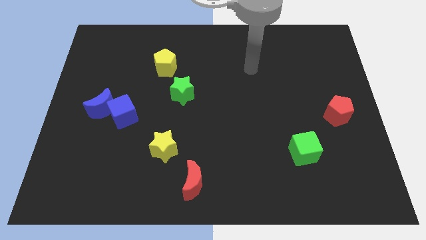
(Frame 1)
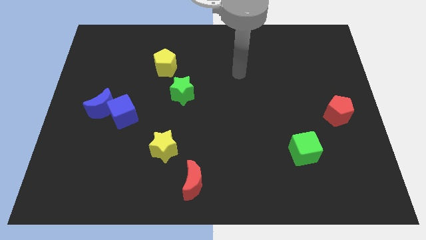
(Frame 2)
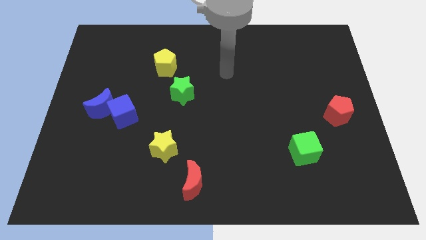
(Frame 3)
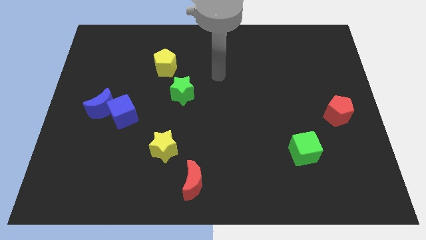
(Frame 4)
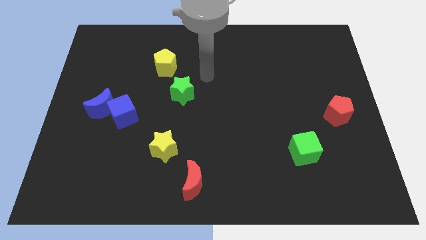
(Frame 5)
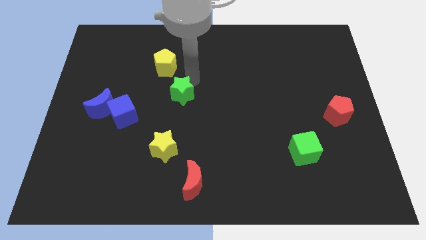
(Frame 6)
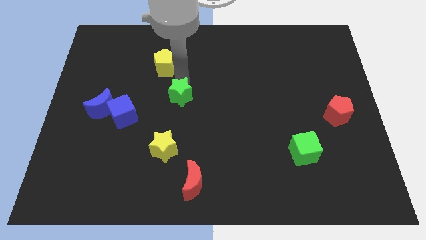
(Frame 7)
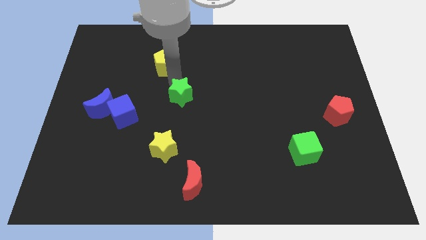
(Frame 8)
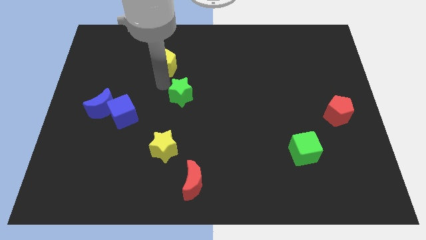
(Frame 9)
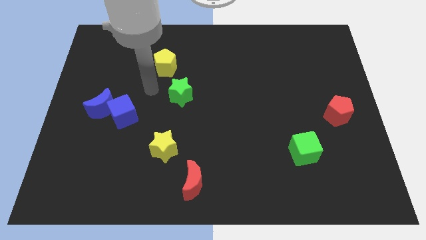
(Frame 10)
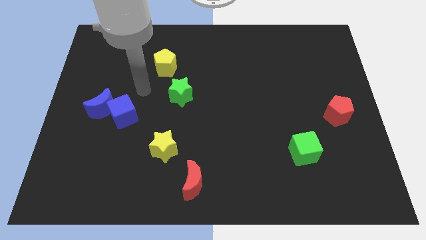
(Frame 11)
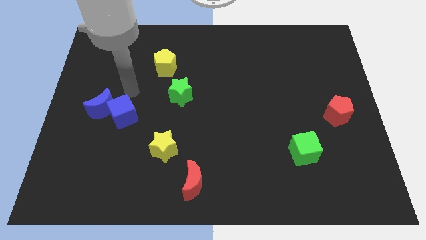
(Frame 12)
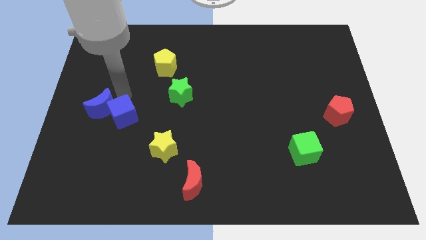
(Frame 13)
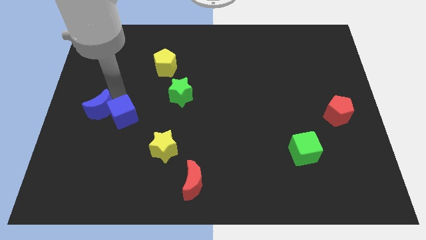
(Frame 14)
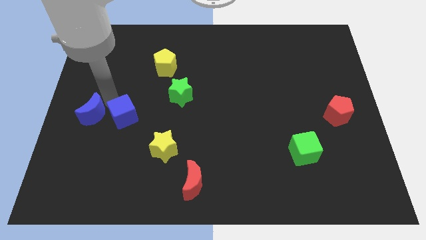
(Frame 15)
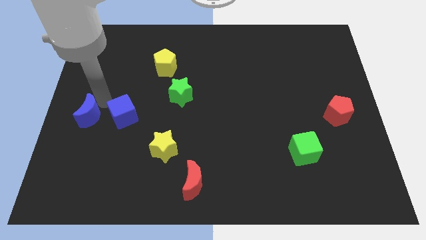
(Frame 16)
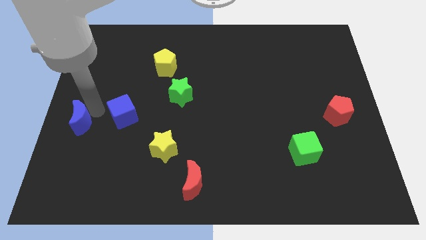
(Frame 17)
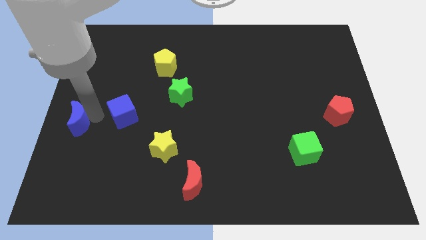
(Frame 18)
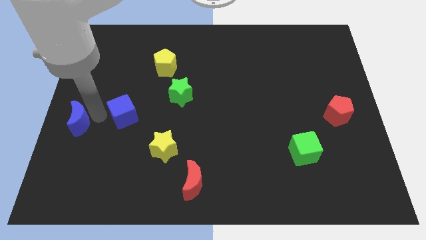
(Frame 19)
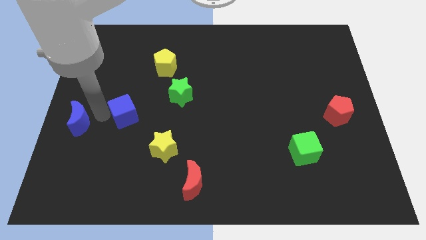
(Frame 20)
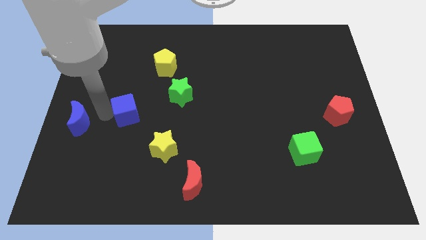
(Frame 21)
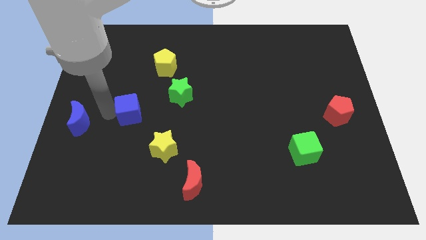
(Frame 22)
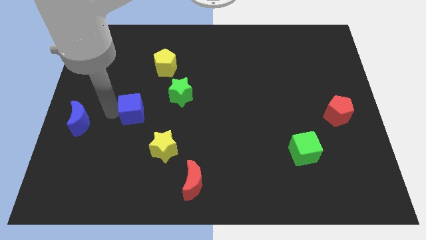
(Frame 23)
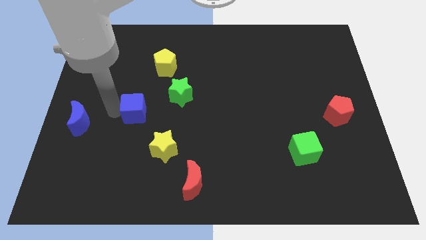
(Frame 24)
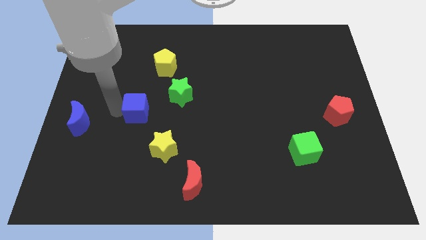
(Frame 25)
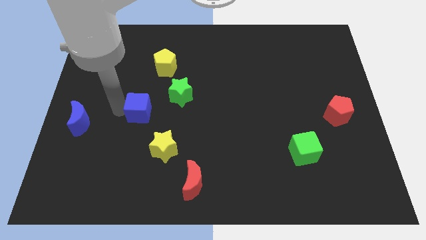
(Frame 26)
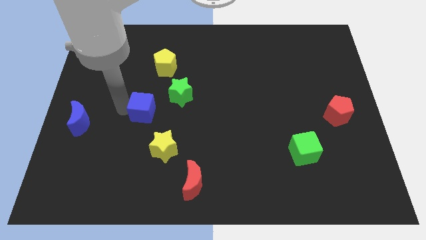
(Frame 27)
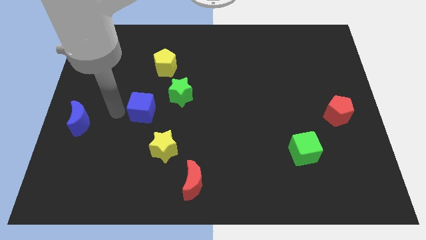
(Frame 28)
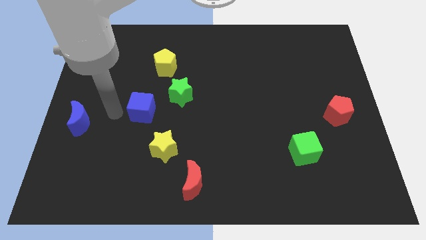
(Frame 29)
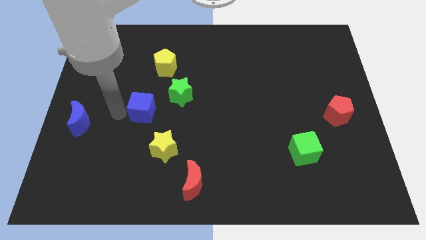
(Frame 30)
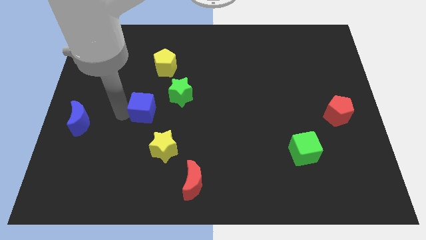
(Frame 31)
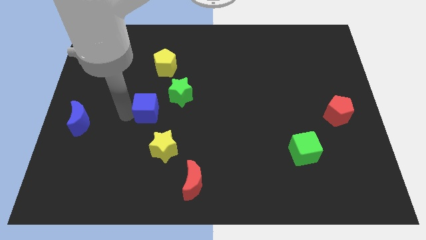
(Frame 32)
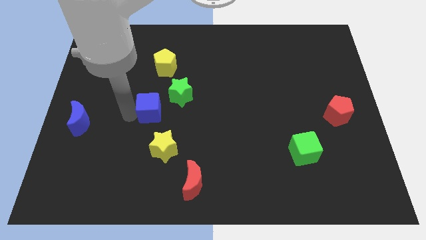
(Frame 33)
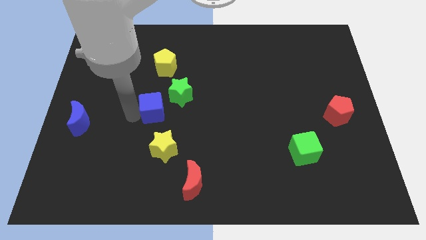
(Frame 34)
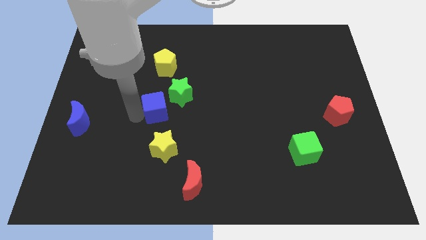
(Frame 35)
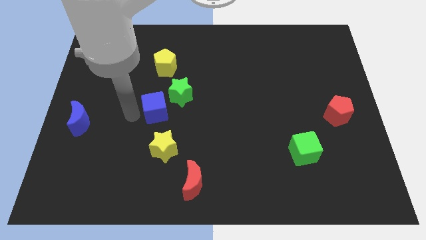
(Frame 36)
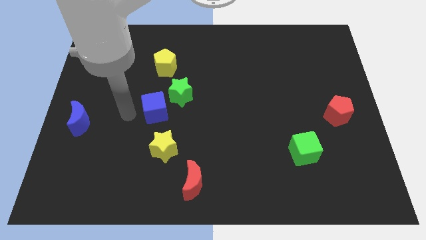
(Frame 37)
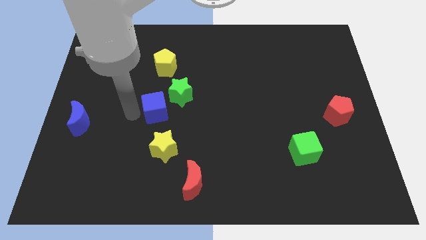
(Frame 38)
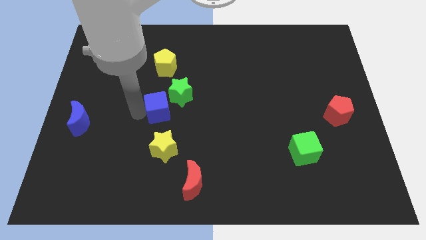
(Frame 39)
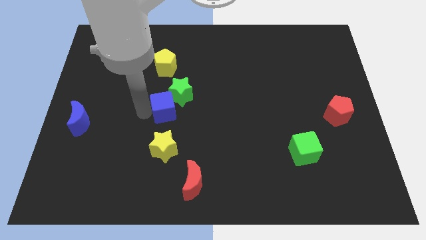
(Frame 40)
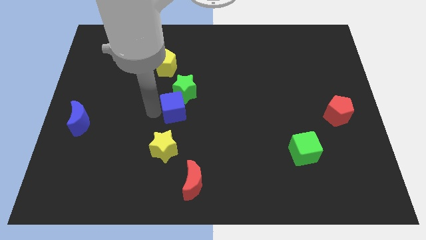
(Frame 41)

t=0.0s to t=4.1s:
slide the blue cube somewhat diagonally up and right

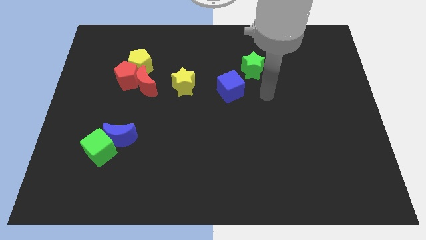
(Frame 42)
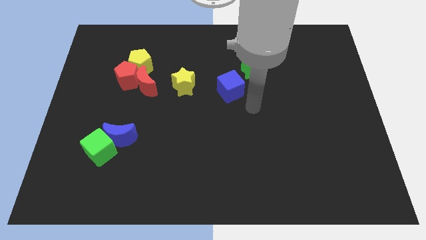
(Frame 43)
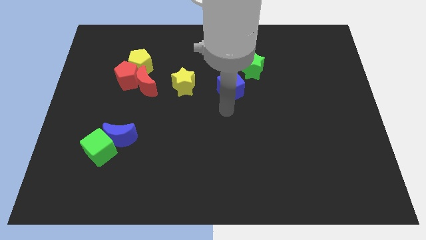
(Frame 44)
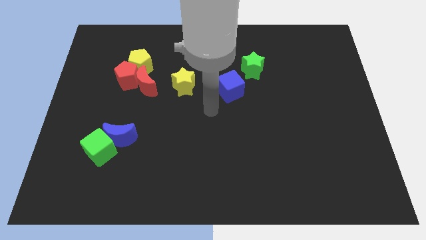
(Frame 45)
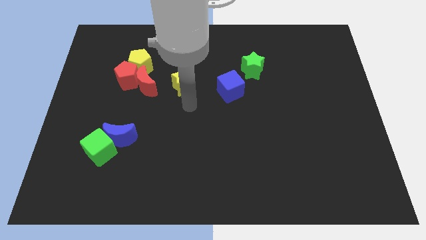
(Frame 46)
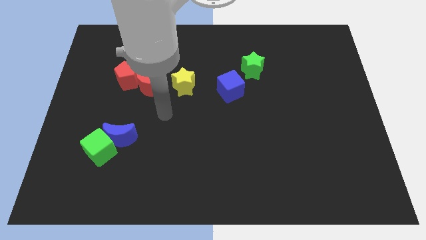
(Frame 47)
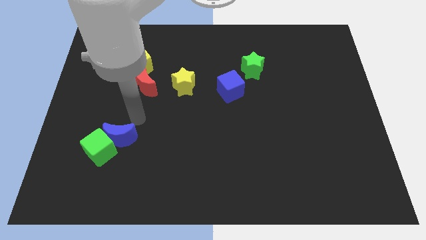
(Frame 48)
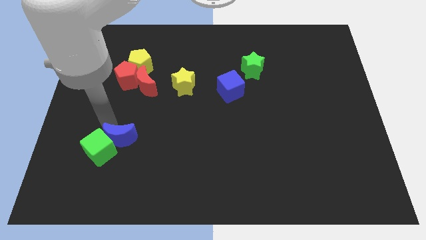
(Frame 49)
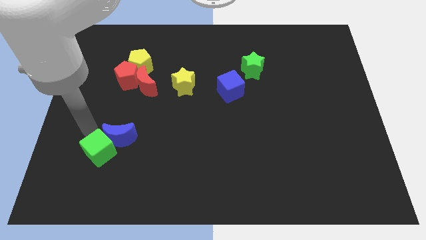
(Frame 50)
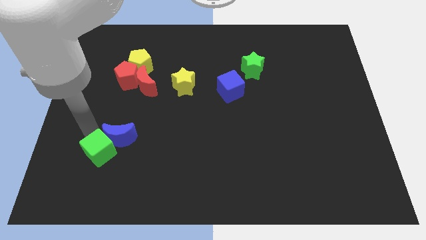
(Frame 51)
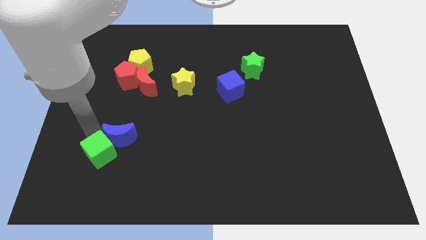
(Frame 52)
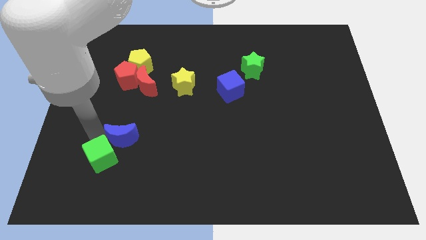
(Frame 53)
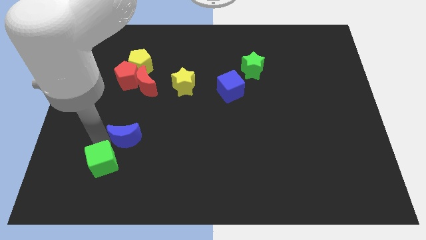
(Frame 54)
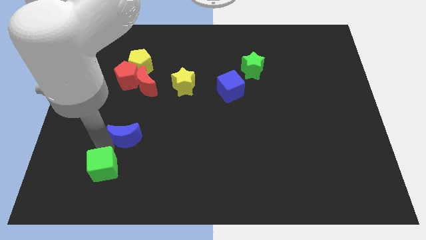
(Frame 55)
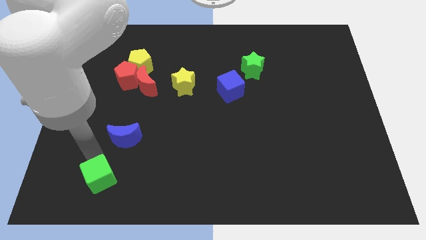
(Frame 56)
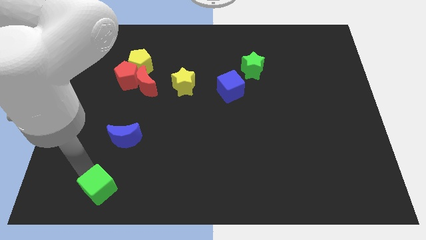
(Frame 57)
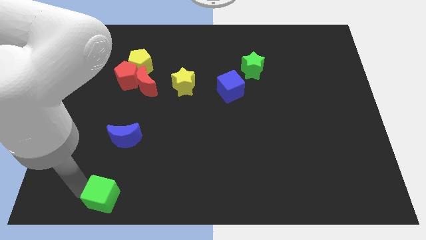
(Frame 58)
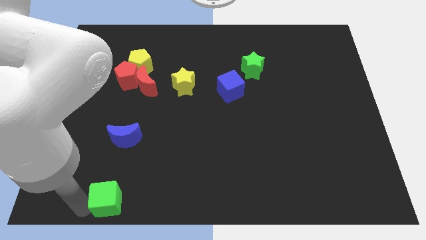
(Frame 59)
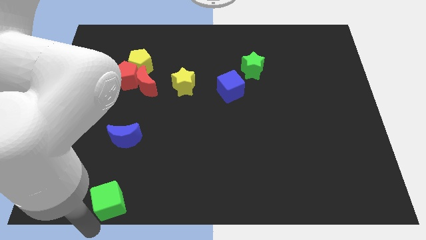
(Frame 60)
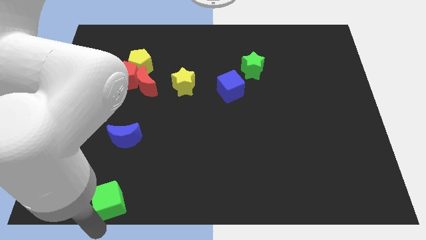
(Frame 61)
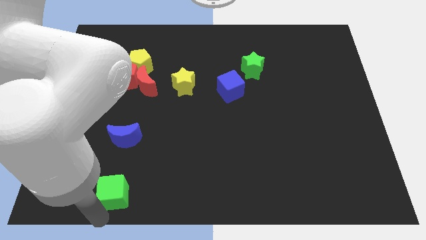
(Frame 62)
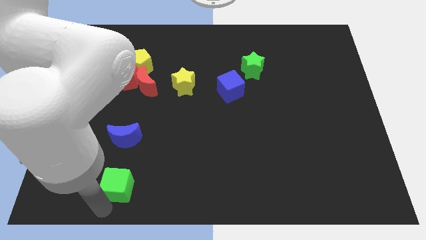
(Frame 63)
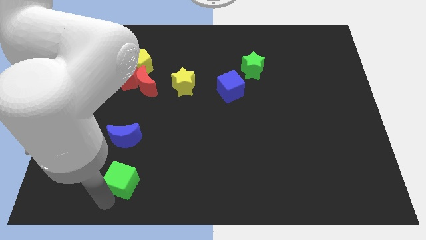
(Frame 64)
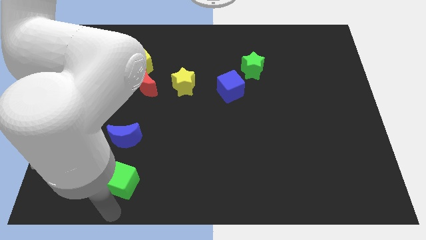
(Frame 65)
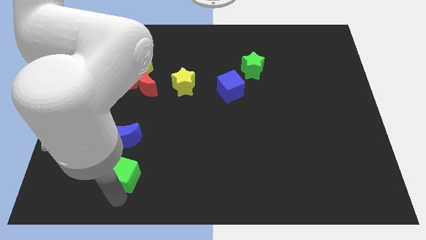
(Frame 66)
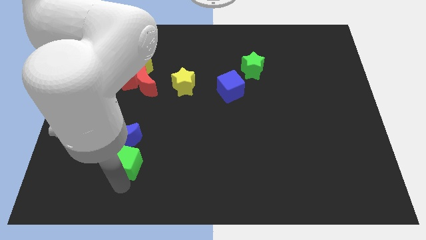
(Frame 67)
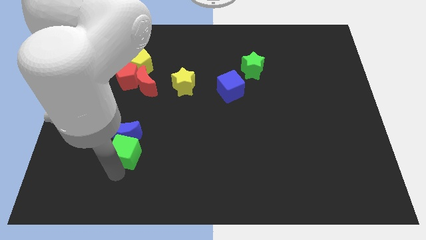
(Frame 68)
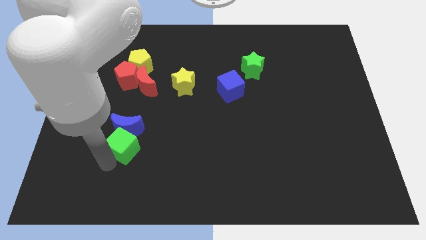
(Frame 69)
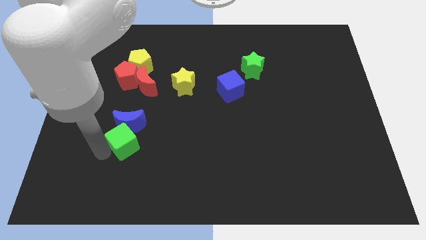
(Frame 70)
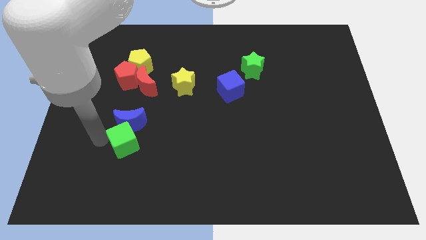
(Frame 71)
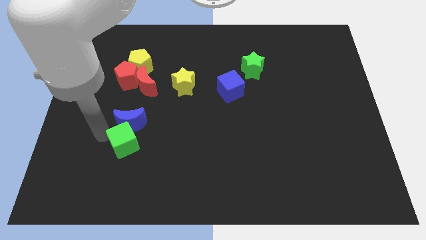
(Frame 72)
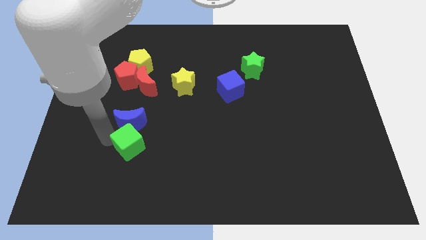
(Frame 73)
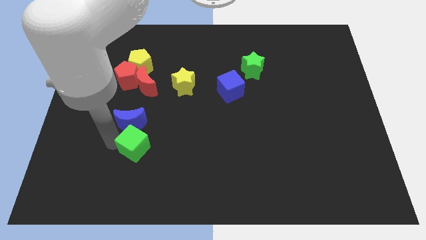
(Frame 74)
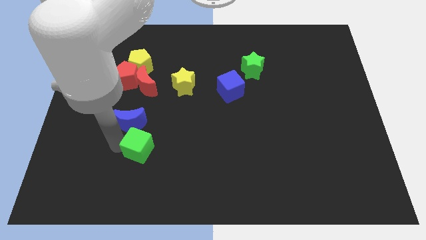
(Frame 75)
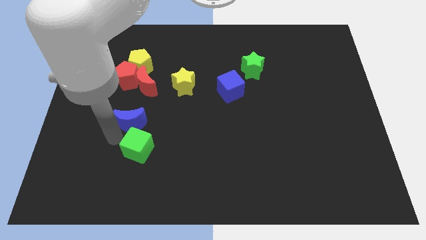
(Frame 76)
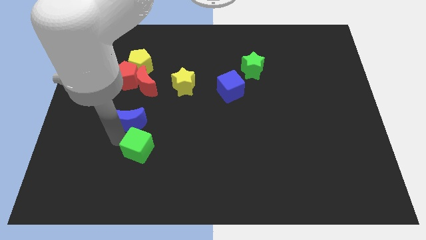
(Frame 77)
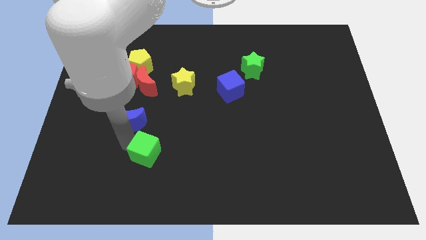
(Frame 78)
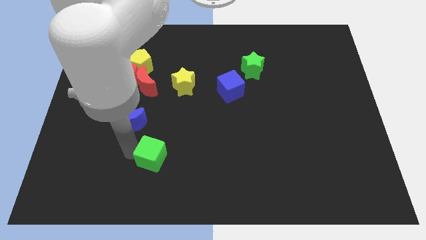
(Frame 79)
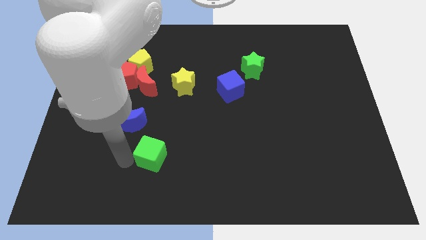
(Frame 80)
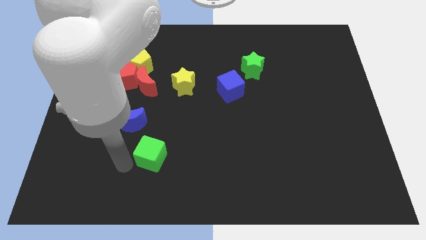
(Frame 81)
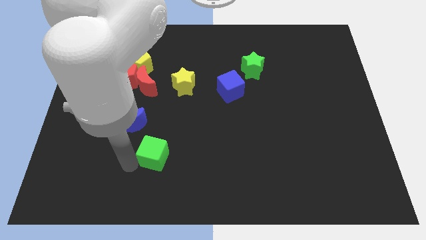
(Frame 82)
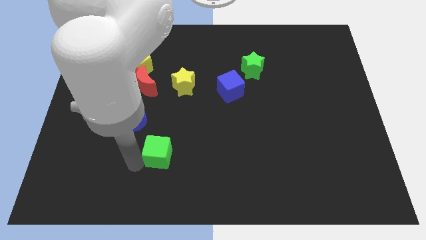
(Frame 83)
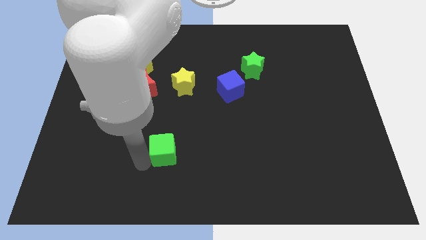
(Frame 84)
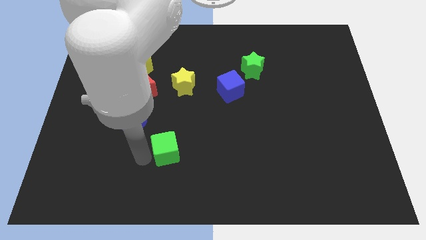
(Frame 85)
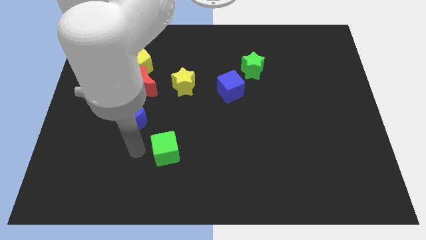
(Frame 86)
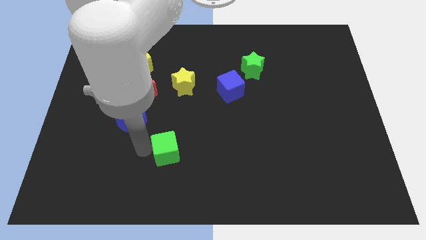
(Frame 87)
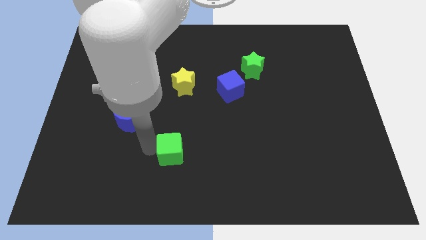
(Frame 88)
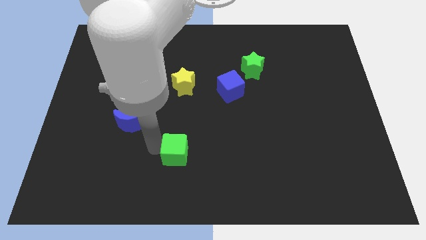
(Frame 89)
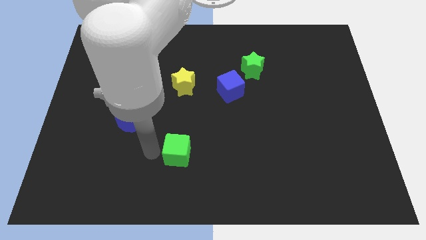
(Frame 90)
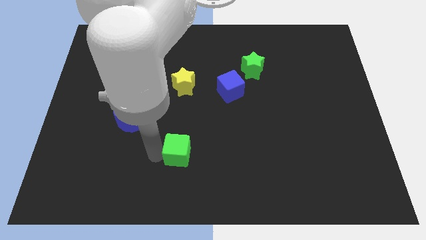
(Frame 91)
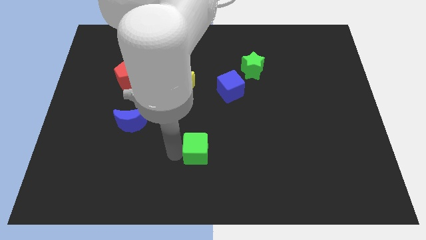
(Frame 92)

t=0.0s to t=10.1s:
slide the green cube to the right
